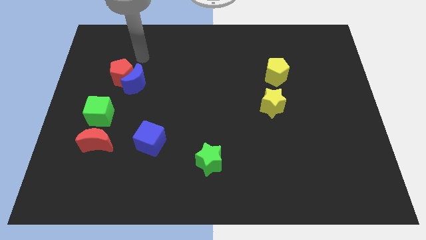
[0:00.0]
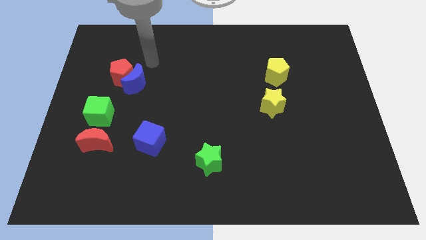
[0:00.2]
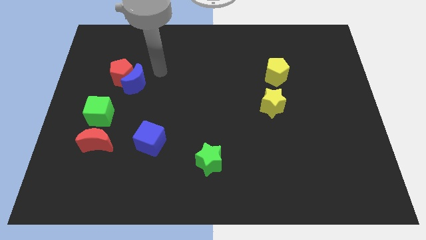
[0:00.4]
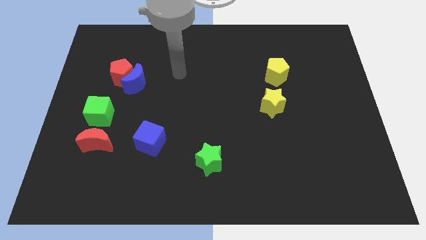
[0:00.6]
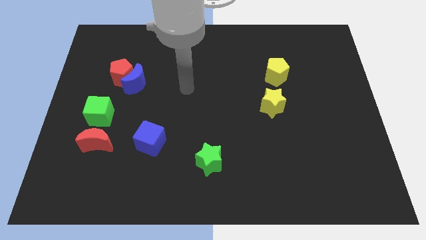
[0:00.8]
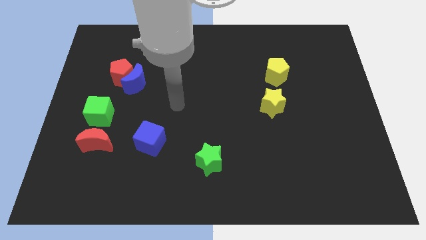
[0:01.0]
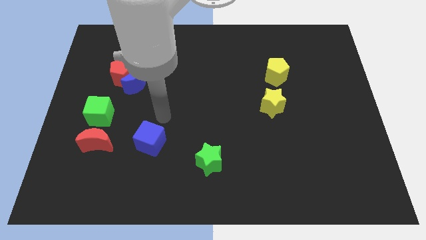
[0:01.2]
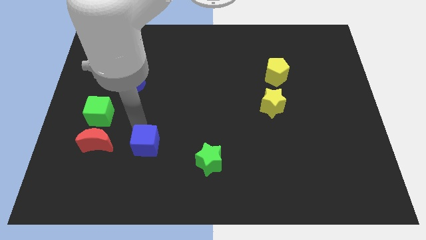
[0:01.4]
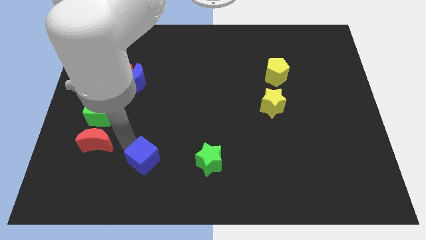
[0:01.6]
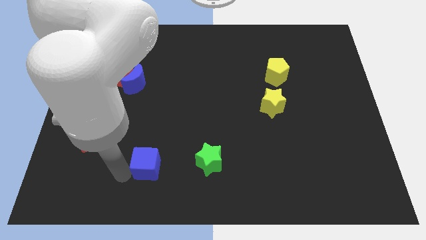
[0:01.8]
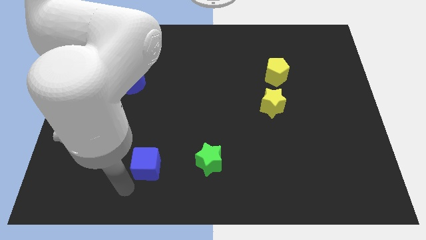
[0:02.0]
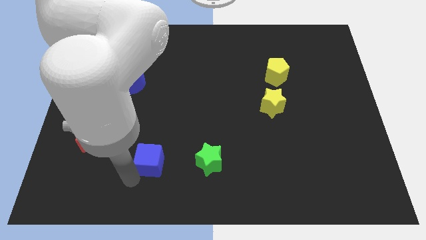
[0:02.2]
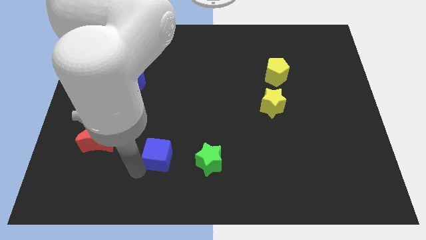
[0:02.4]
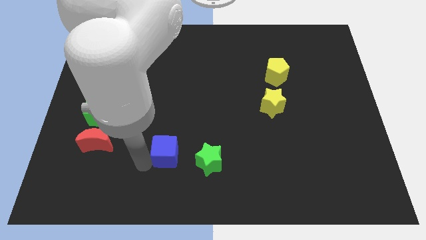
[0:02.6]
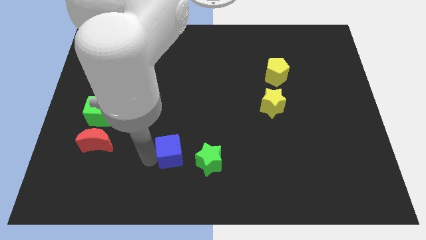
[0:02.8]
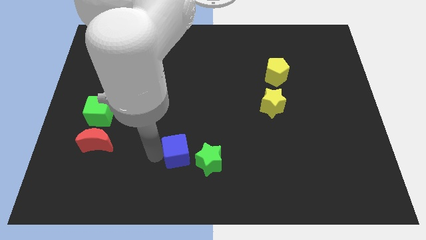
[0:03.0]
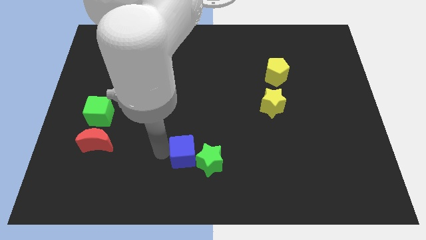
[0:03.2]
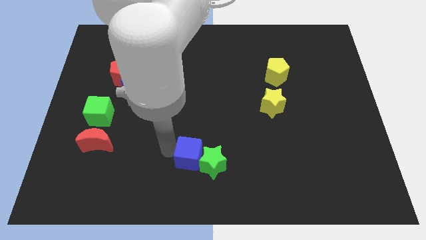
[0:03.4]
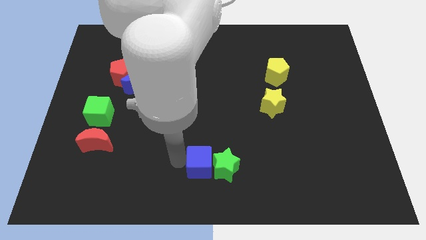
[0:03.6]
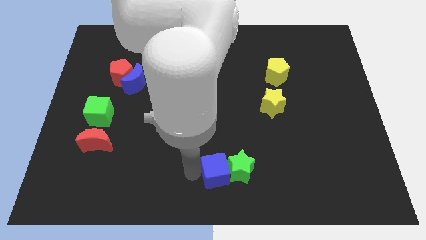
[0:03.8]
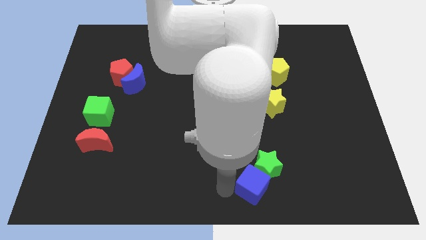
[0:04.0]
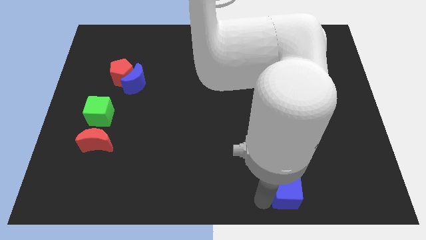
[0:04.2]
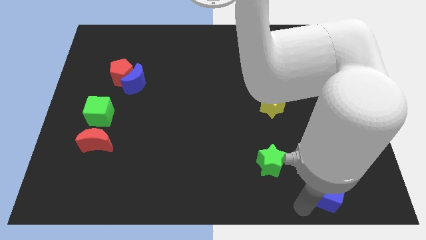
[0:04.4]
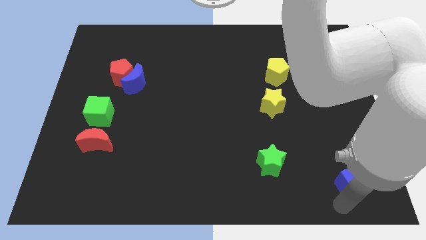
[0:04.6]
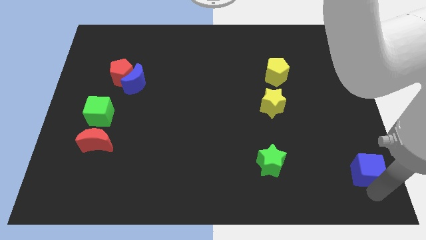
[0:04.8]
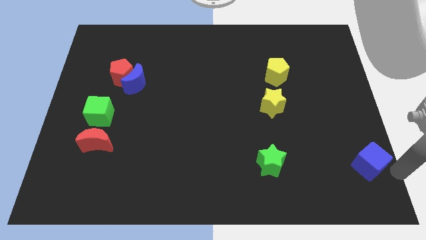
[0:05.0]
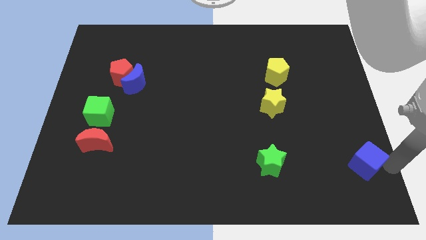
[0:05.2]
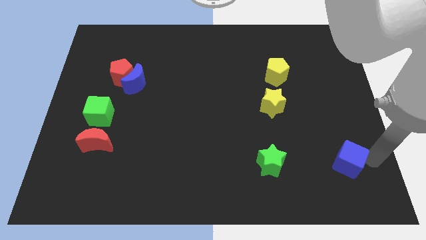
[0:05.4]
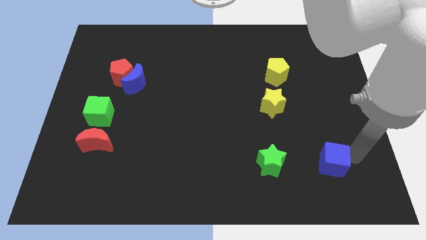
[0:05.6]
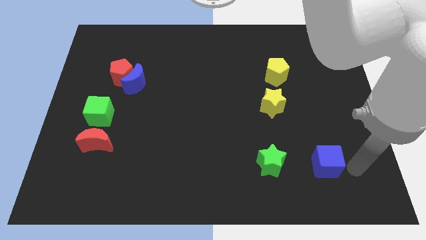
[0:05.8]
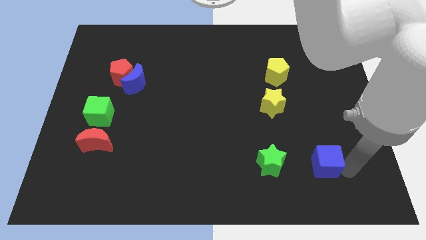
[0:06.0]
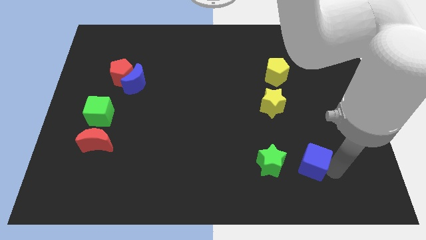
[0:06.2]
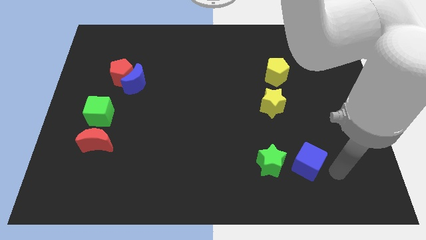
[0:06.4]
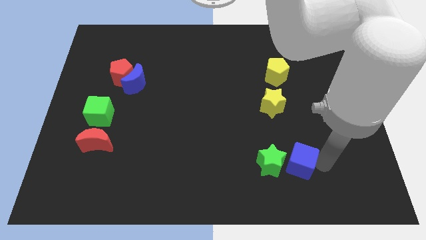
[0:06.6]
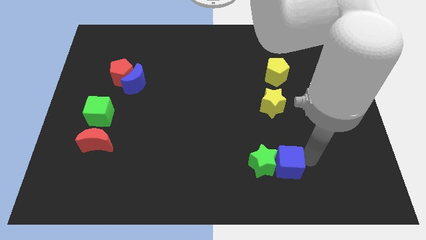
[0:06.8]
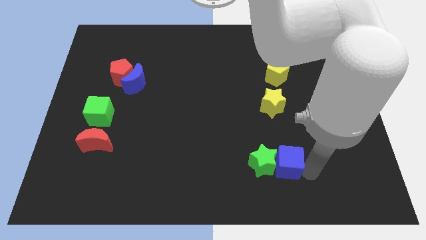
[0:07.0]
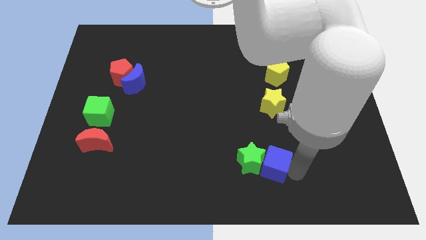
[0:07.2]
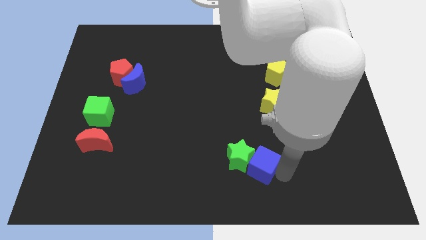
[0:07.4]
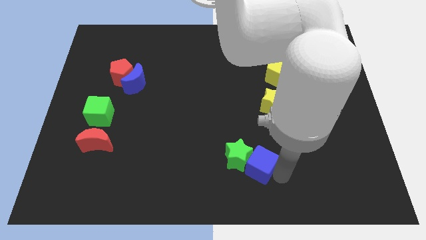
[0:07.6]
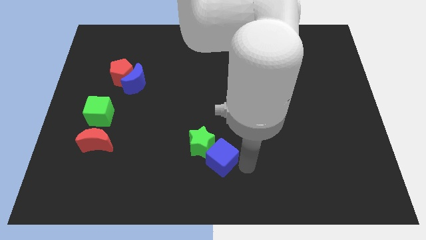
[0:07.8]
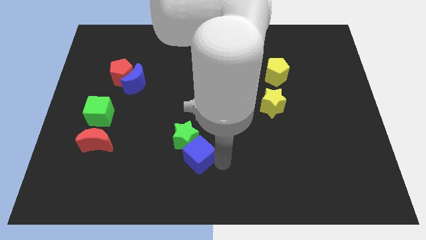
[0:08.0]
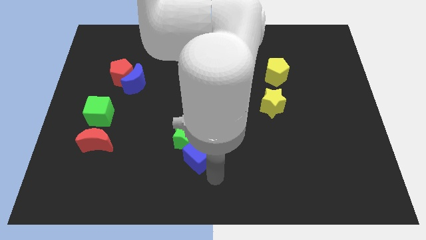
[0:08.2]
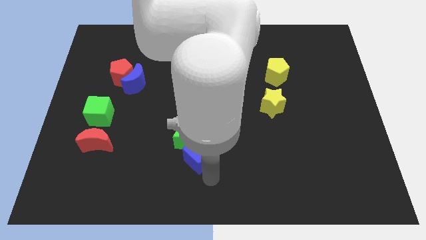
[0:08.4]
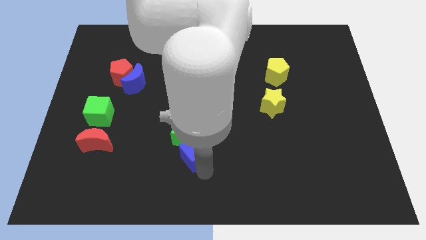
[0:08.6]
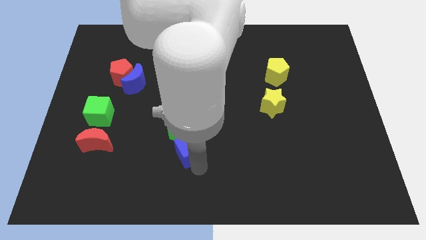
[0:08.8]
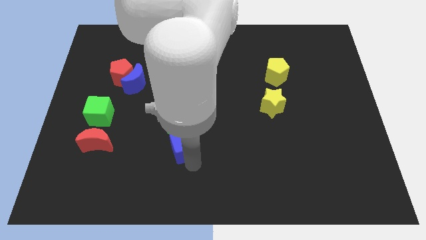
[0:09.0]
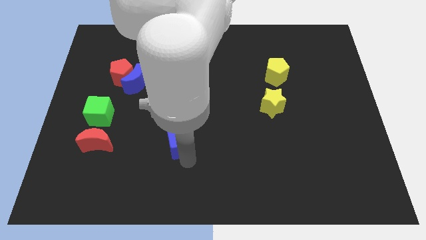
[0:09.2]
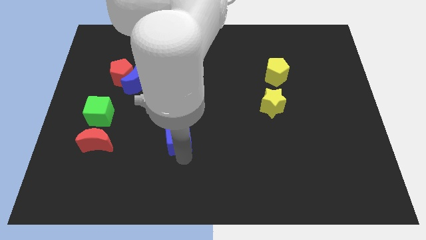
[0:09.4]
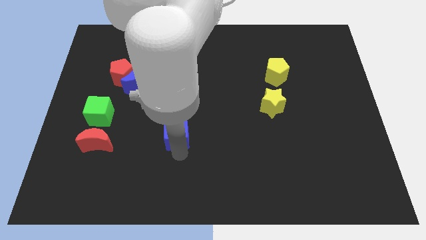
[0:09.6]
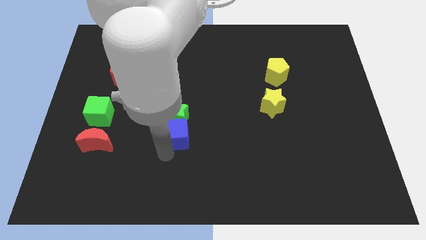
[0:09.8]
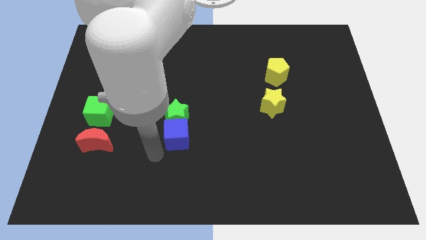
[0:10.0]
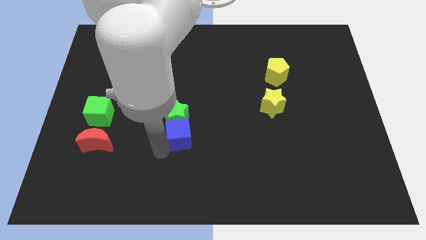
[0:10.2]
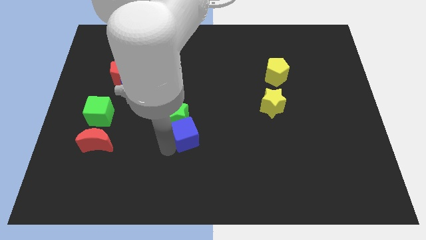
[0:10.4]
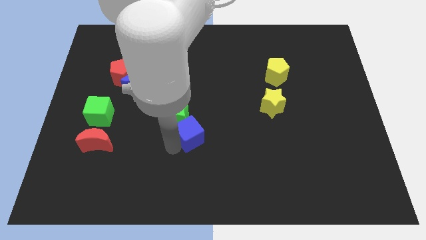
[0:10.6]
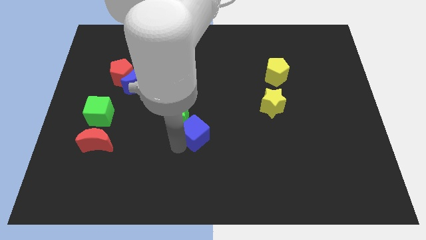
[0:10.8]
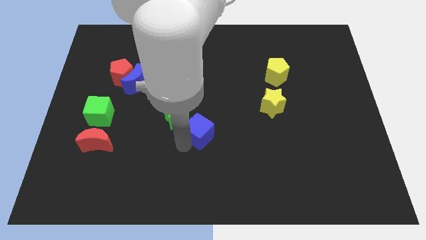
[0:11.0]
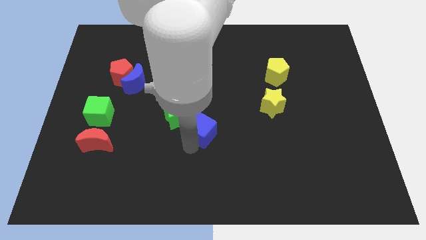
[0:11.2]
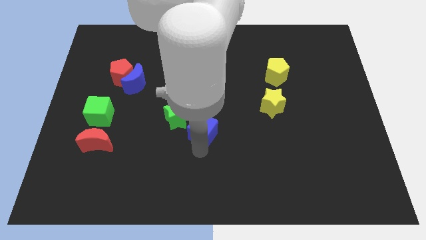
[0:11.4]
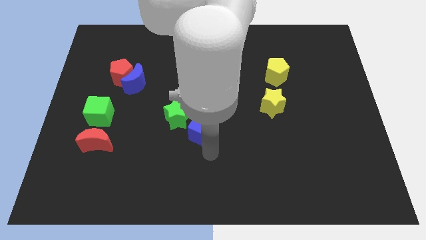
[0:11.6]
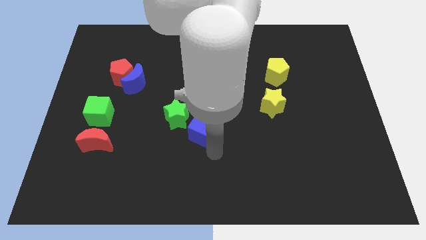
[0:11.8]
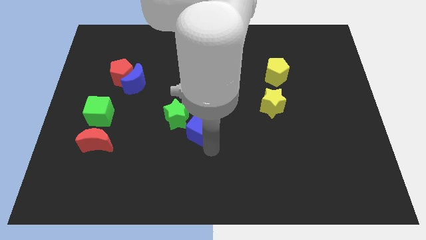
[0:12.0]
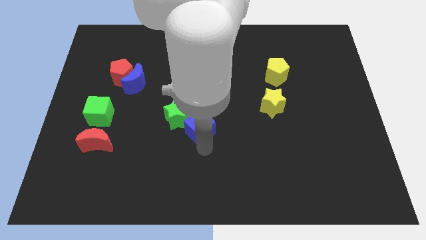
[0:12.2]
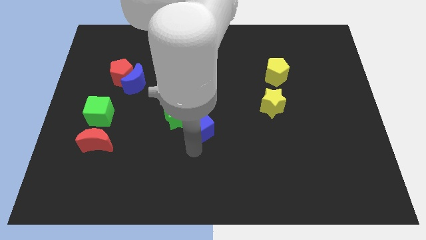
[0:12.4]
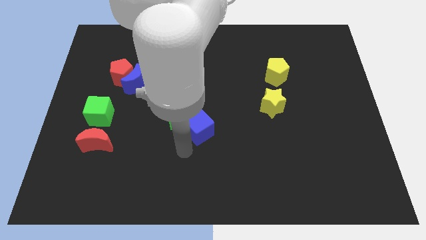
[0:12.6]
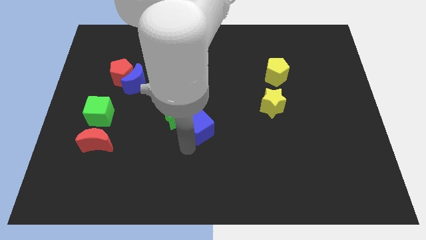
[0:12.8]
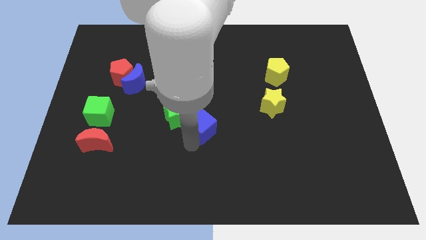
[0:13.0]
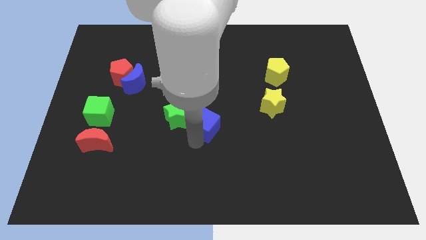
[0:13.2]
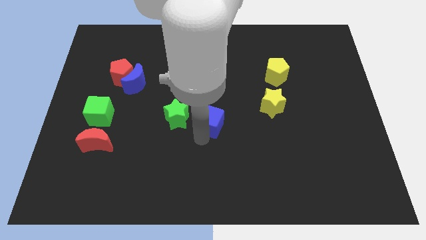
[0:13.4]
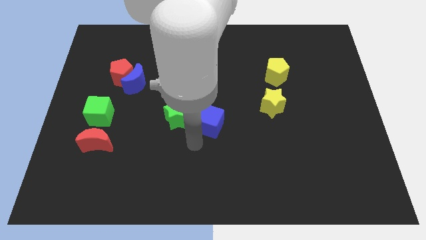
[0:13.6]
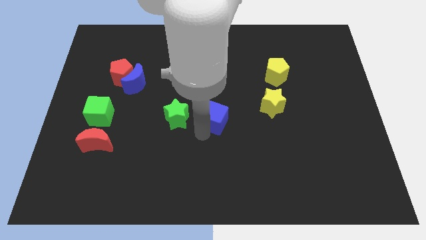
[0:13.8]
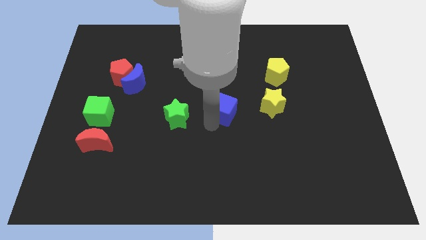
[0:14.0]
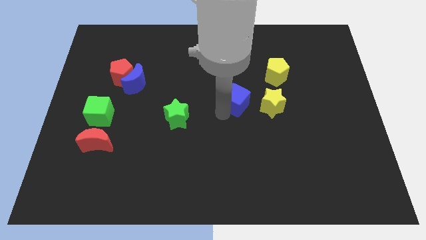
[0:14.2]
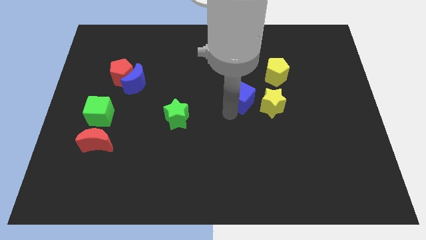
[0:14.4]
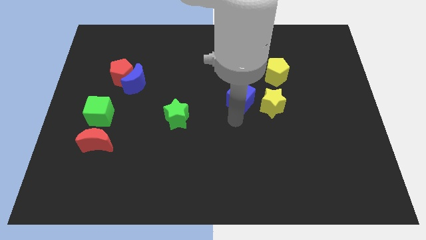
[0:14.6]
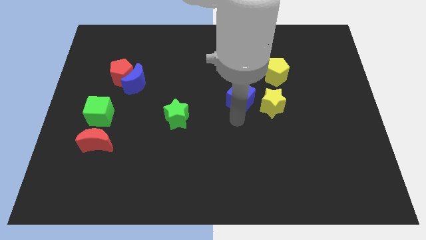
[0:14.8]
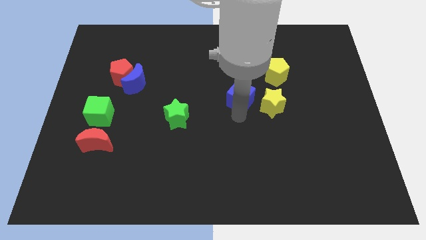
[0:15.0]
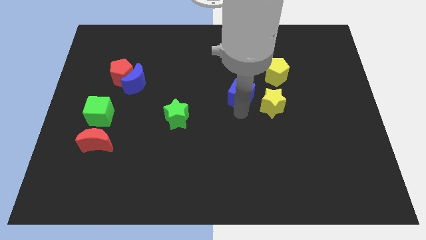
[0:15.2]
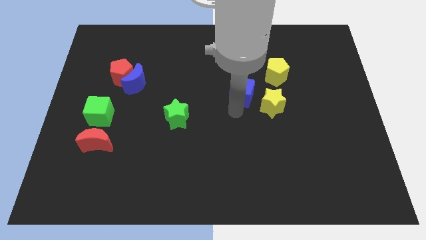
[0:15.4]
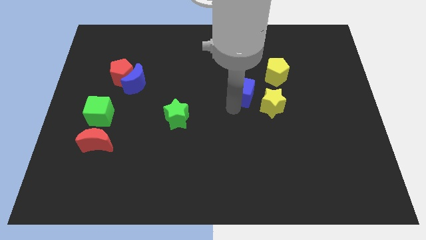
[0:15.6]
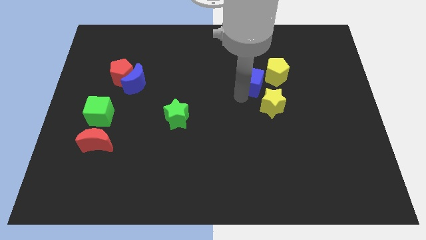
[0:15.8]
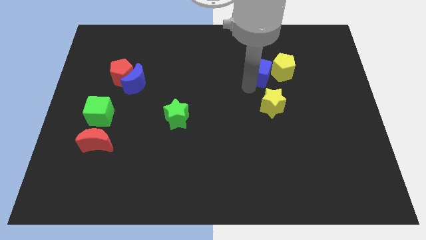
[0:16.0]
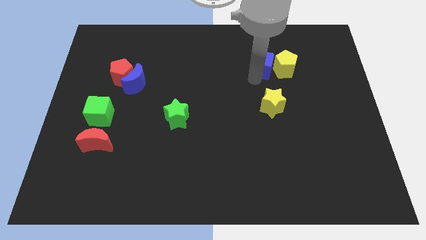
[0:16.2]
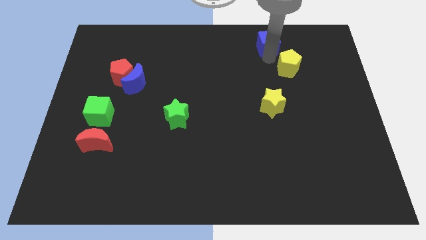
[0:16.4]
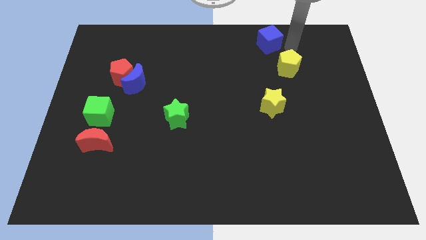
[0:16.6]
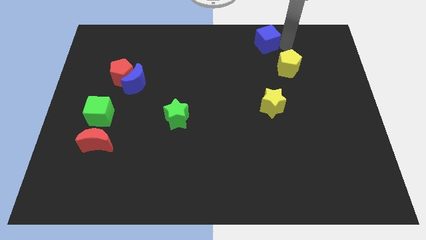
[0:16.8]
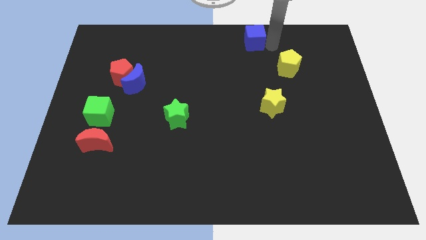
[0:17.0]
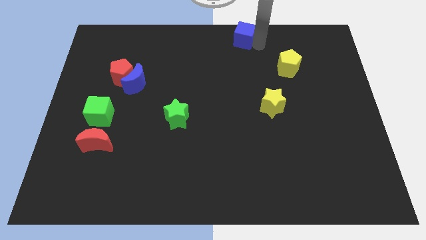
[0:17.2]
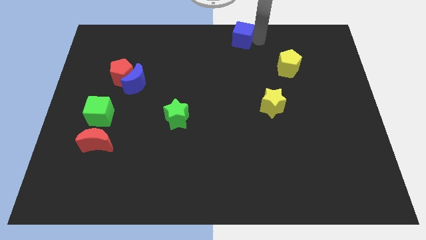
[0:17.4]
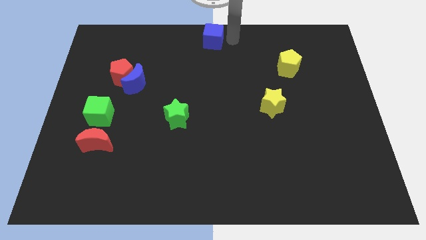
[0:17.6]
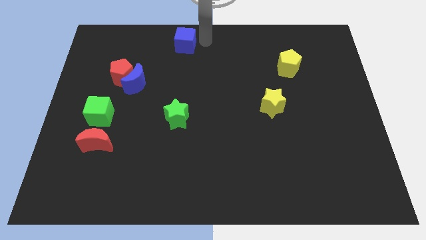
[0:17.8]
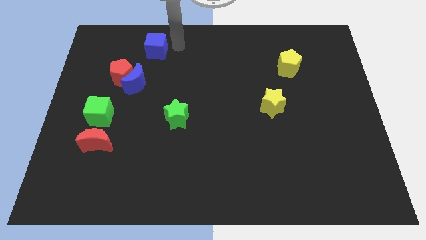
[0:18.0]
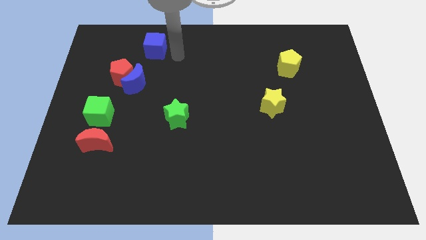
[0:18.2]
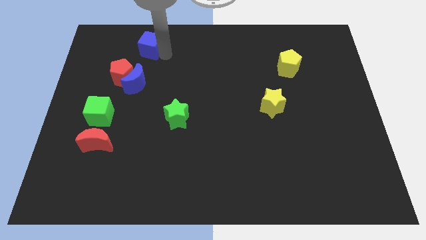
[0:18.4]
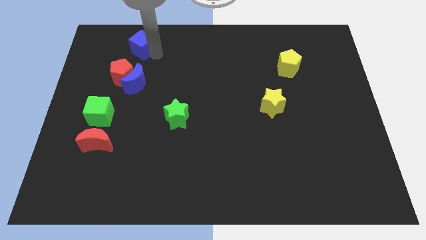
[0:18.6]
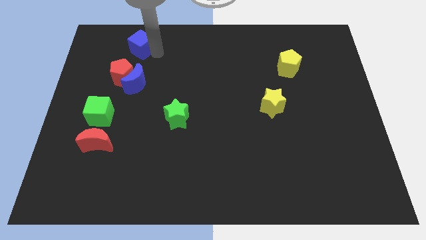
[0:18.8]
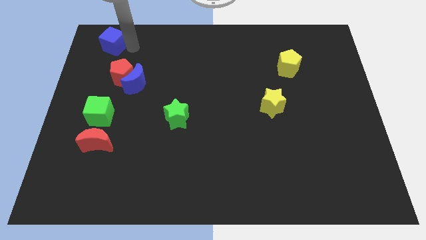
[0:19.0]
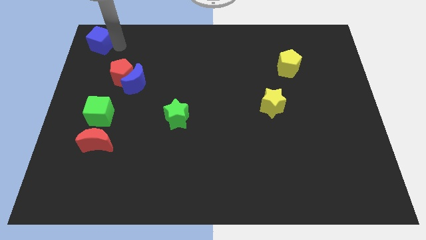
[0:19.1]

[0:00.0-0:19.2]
push the blue cube to the top left
